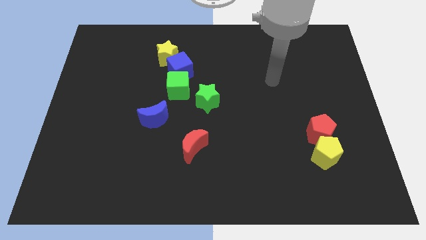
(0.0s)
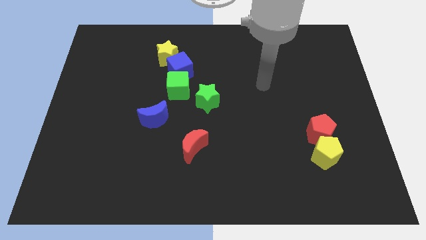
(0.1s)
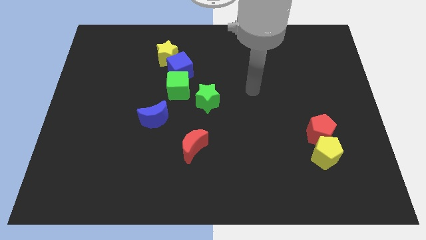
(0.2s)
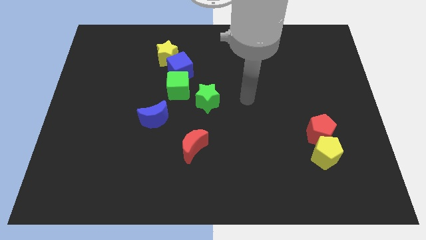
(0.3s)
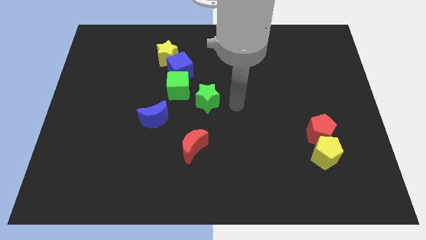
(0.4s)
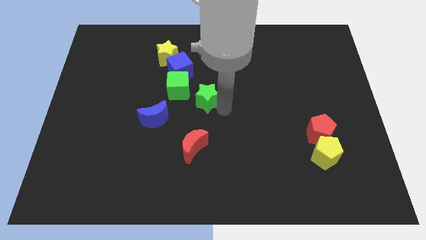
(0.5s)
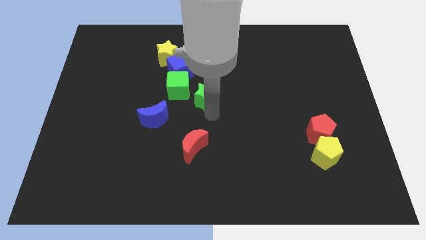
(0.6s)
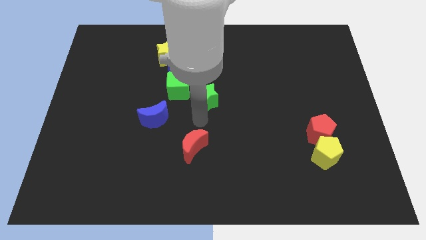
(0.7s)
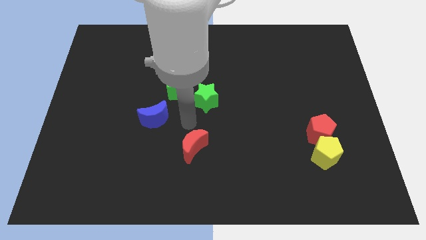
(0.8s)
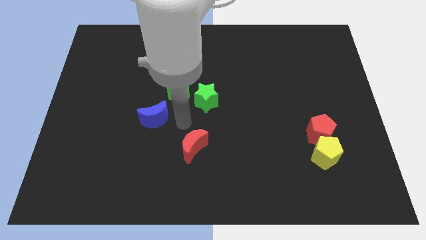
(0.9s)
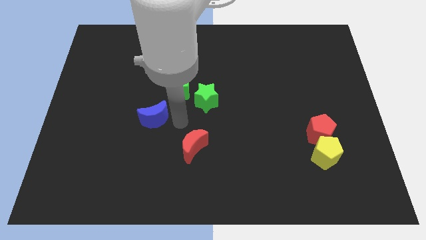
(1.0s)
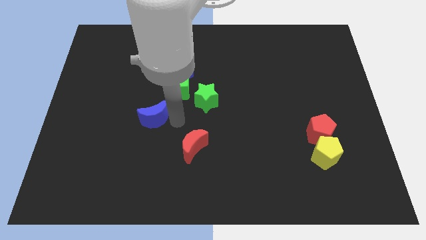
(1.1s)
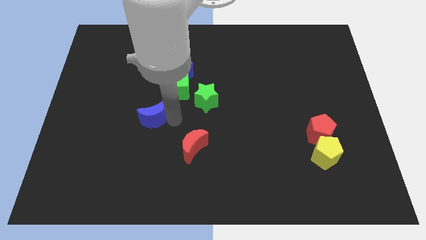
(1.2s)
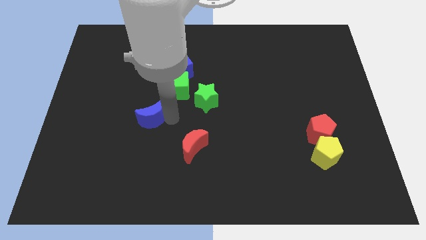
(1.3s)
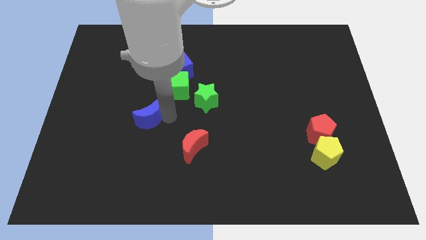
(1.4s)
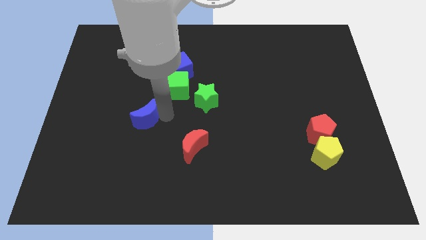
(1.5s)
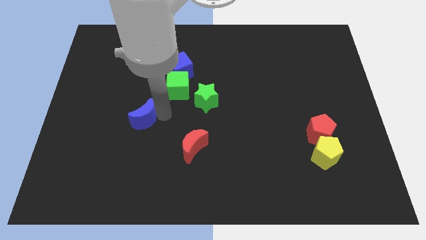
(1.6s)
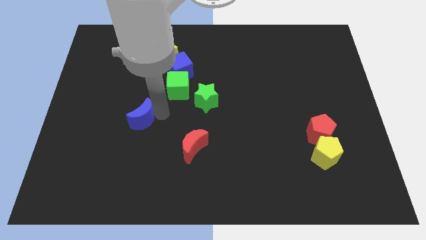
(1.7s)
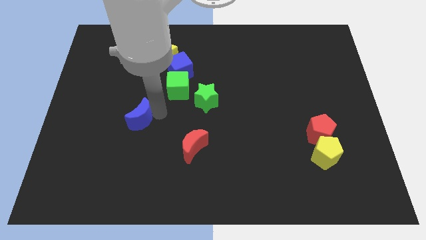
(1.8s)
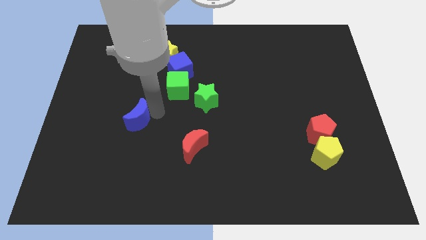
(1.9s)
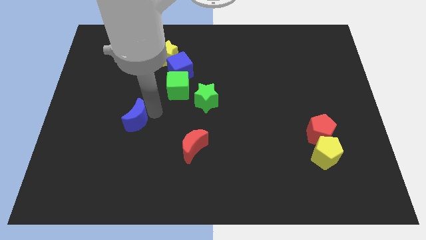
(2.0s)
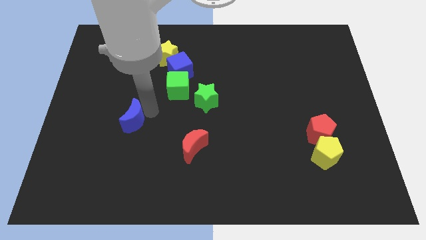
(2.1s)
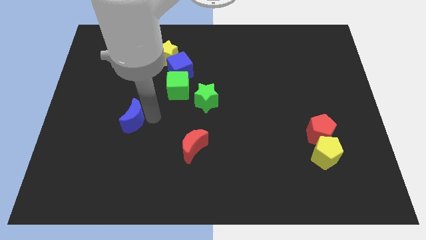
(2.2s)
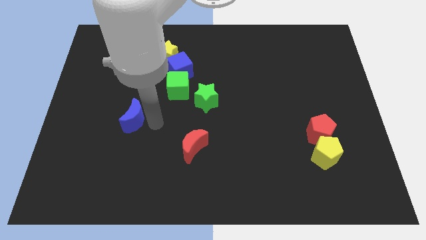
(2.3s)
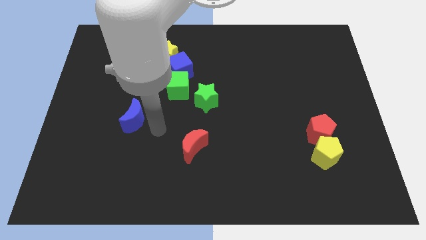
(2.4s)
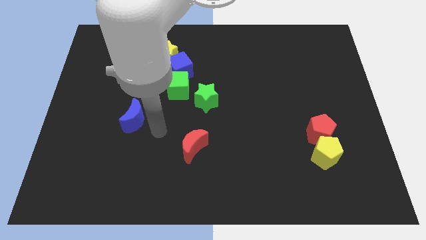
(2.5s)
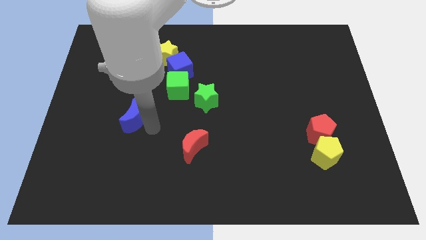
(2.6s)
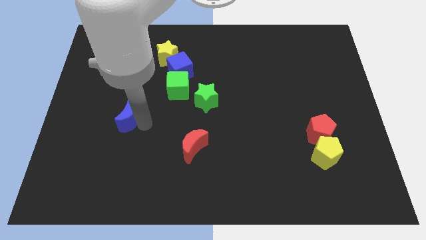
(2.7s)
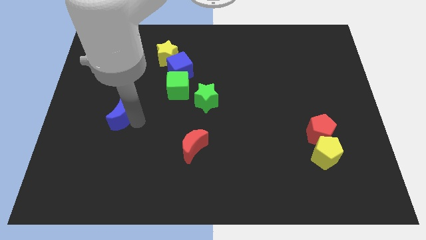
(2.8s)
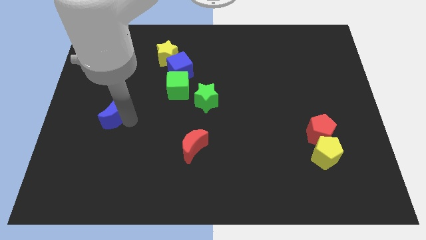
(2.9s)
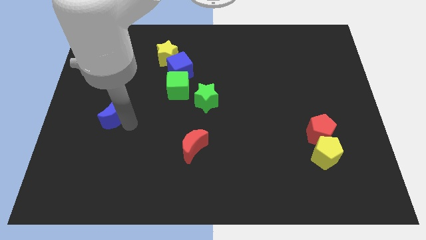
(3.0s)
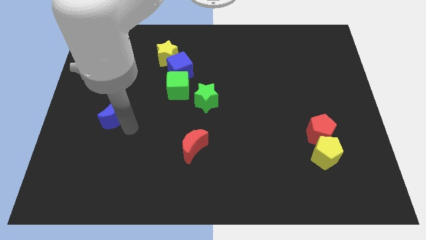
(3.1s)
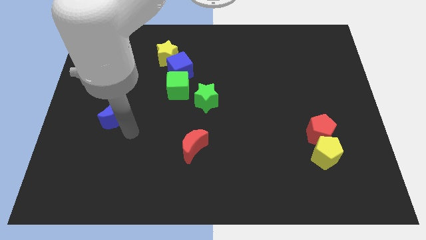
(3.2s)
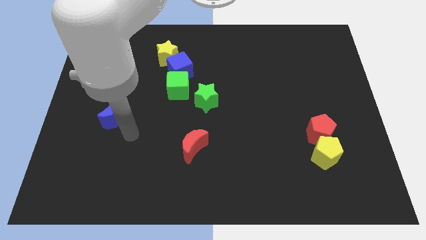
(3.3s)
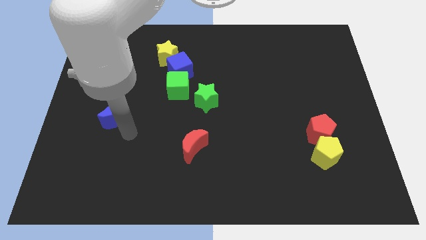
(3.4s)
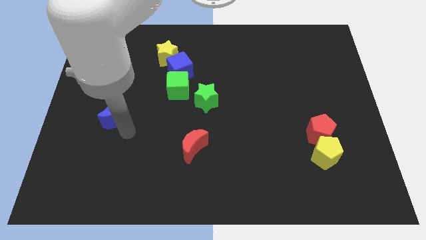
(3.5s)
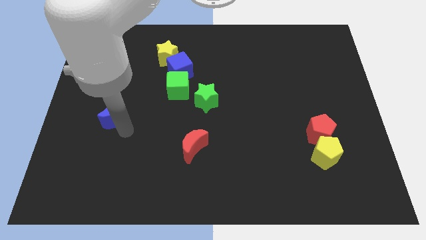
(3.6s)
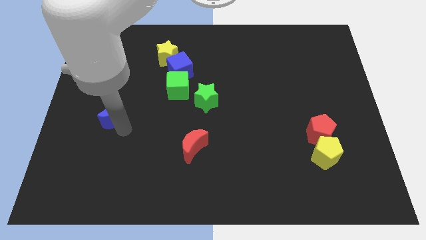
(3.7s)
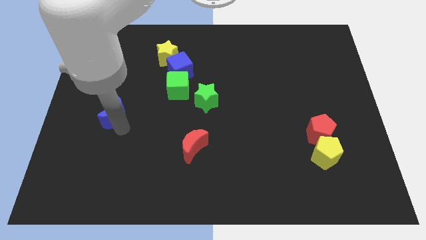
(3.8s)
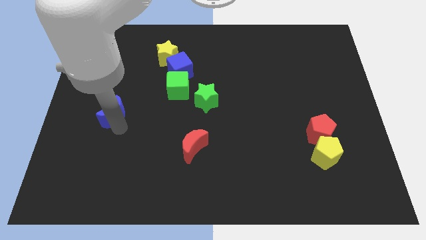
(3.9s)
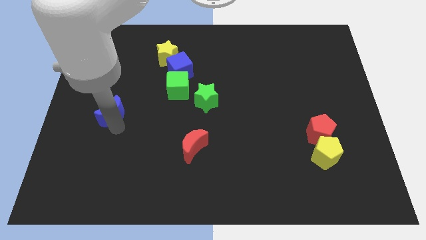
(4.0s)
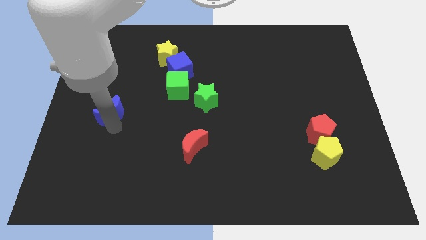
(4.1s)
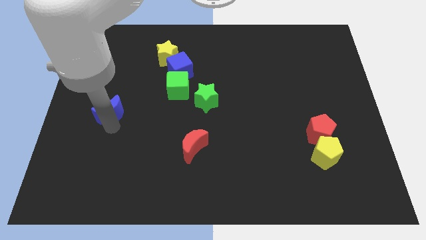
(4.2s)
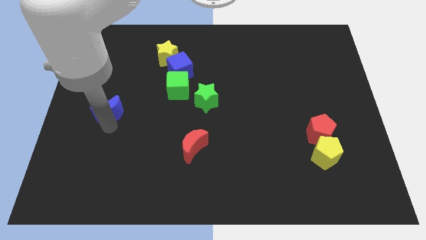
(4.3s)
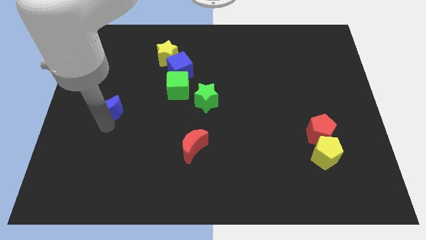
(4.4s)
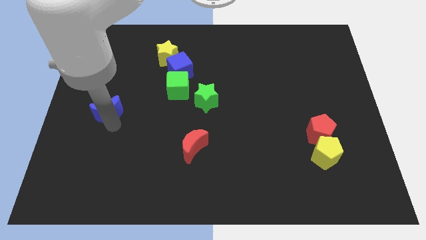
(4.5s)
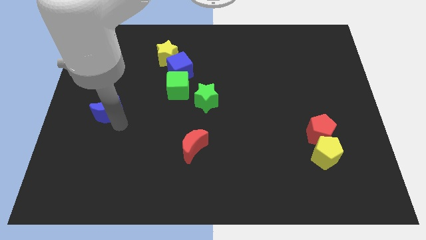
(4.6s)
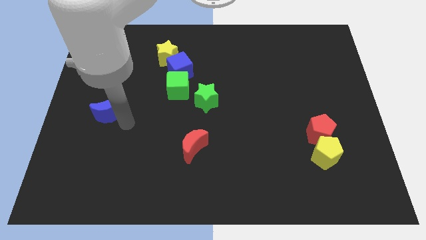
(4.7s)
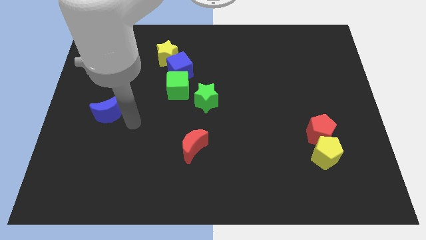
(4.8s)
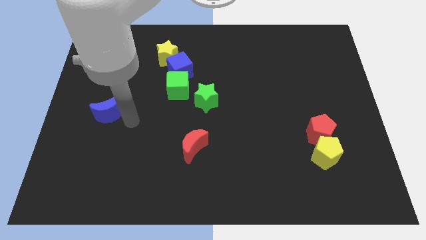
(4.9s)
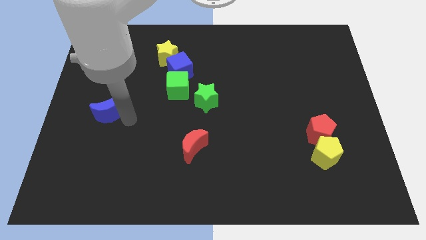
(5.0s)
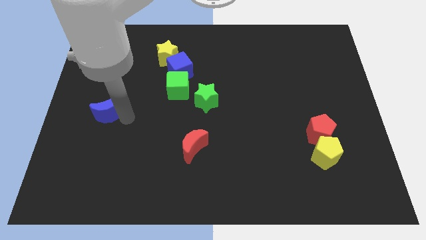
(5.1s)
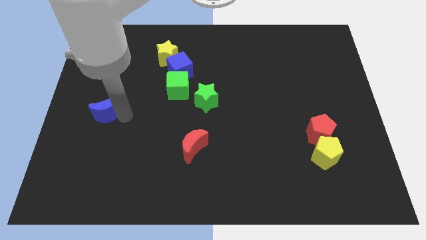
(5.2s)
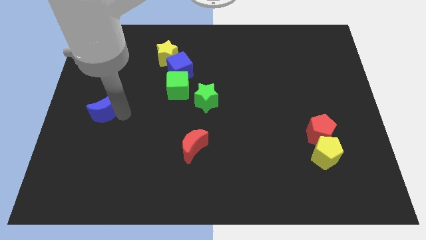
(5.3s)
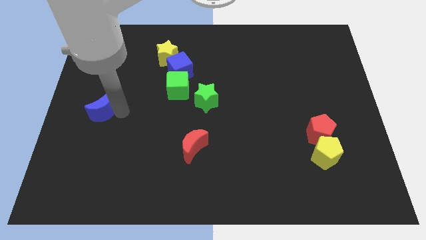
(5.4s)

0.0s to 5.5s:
push the blue moon to the center left

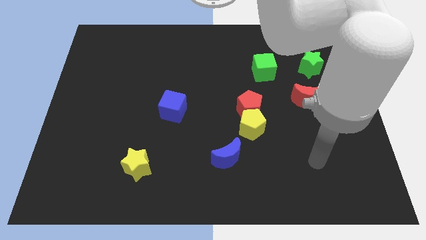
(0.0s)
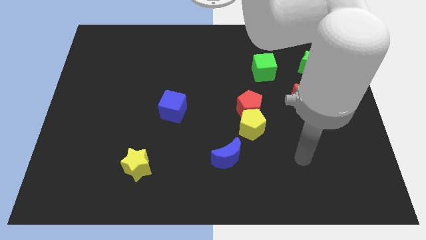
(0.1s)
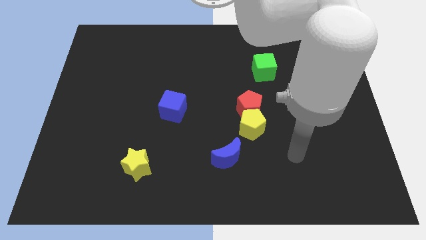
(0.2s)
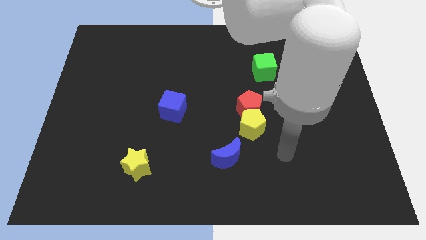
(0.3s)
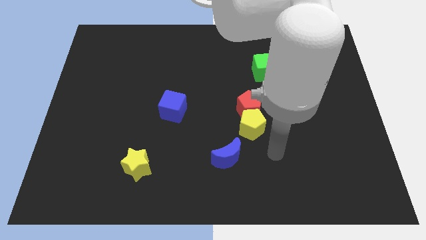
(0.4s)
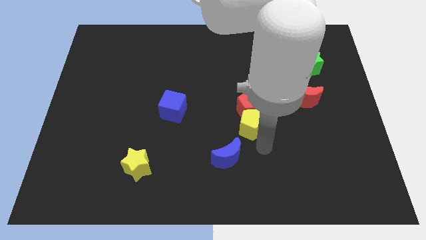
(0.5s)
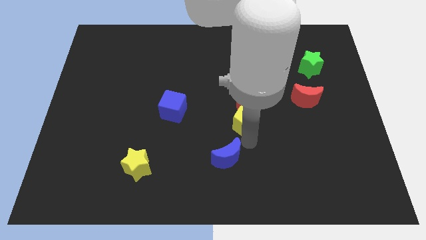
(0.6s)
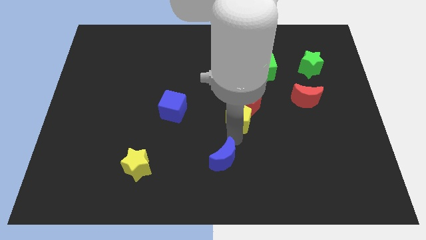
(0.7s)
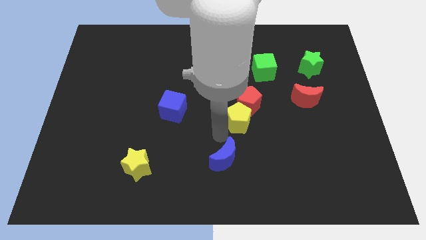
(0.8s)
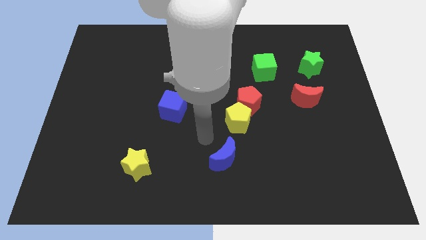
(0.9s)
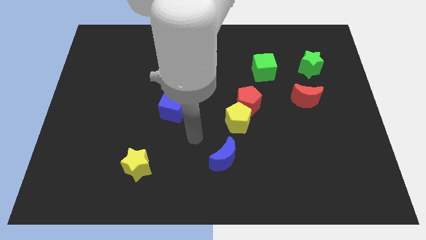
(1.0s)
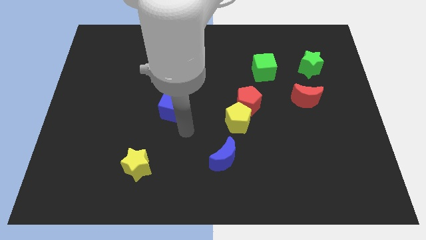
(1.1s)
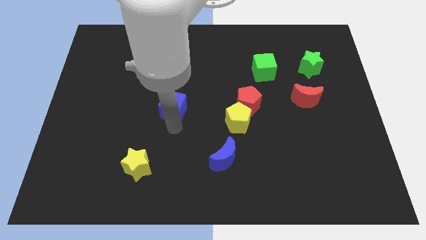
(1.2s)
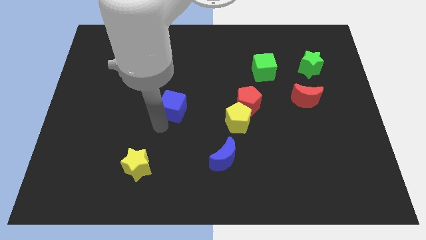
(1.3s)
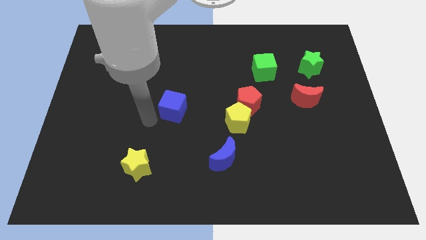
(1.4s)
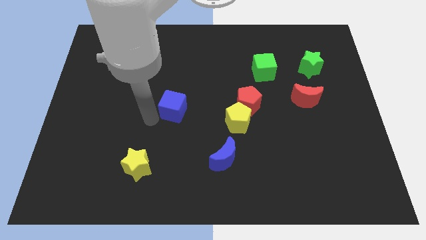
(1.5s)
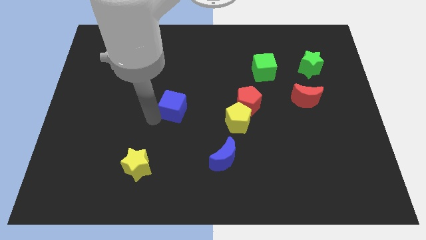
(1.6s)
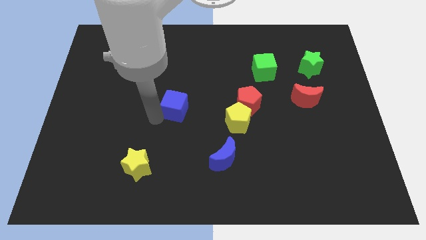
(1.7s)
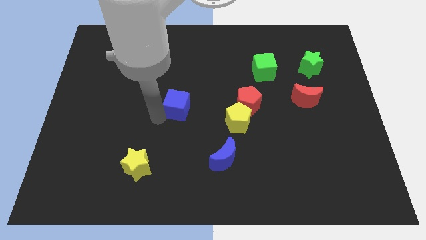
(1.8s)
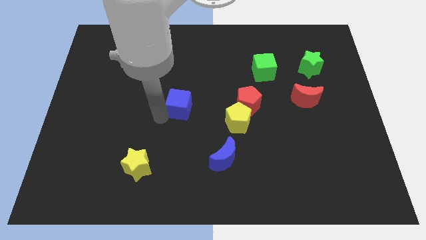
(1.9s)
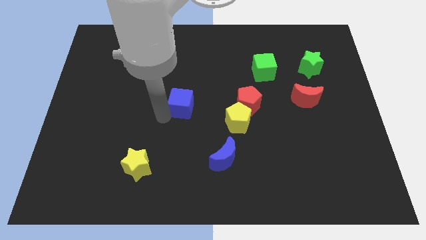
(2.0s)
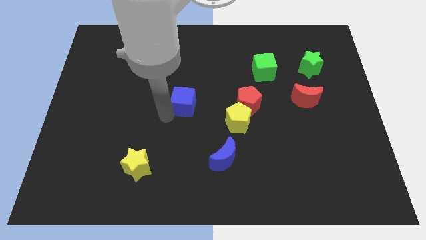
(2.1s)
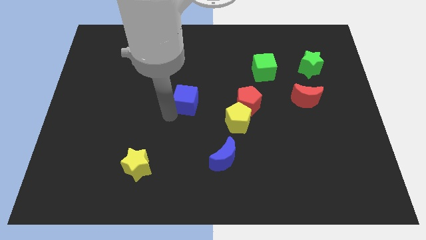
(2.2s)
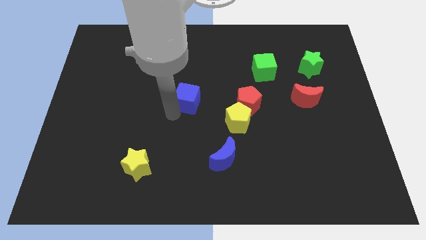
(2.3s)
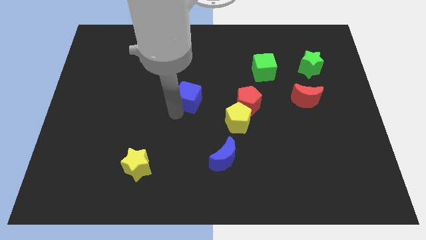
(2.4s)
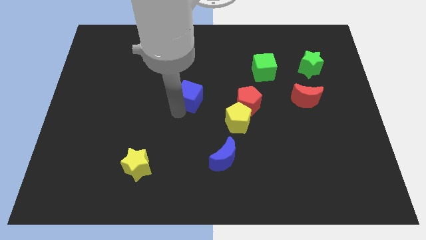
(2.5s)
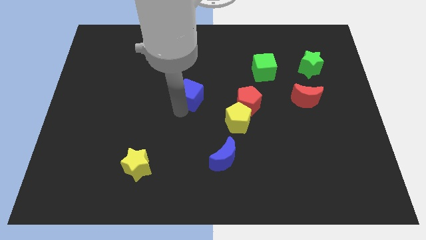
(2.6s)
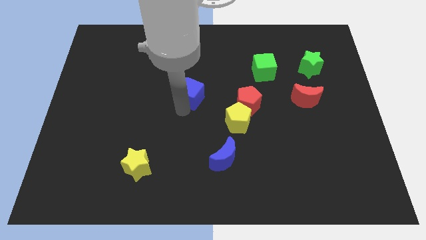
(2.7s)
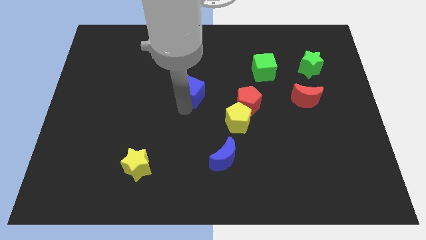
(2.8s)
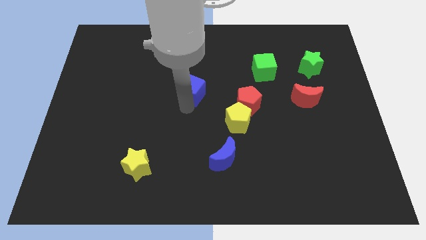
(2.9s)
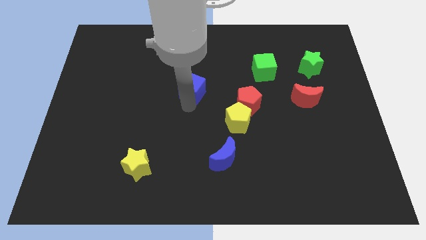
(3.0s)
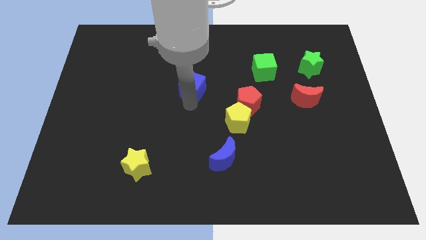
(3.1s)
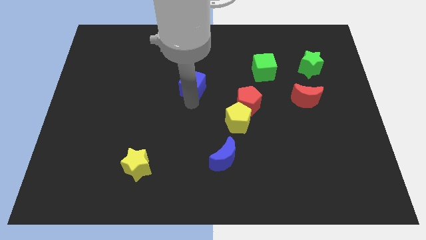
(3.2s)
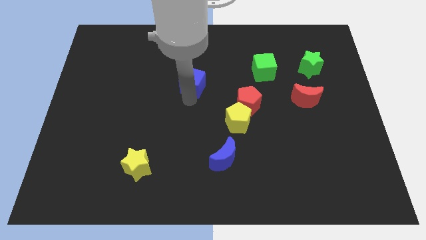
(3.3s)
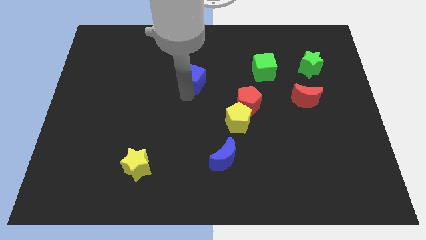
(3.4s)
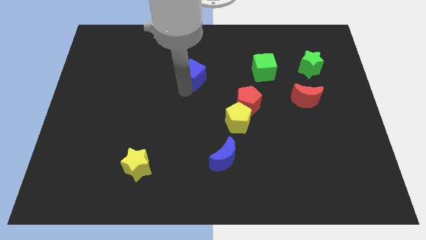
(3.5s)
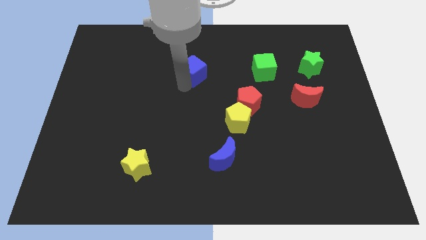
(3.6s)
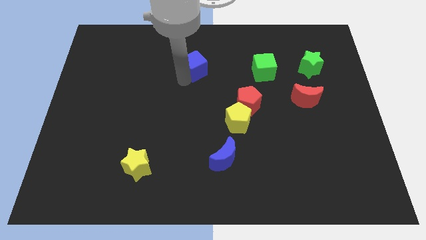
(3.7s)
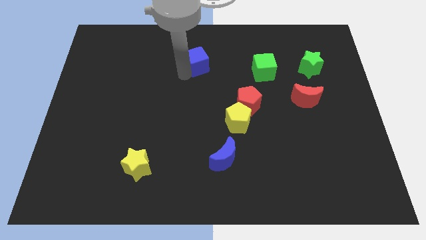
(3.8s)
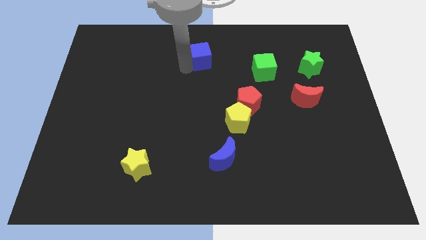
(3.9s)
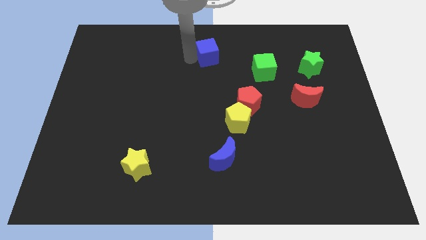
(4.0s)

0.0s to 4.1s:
slide the blue cube to the top side
